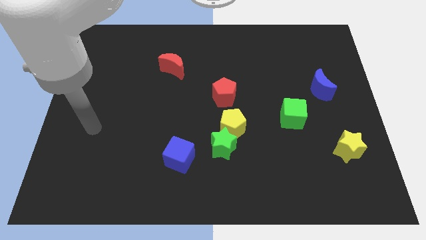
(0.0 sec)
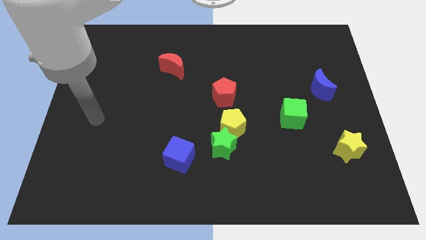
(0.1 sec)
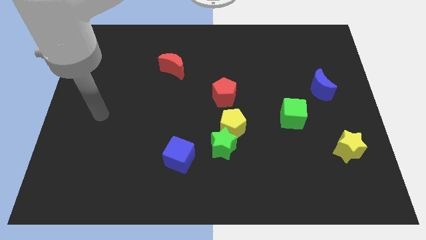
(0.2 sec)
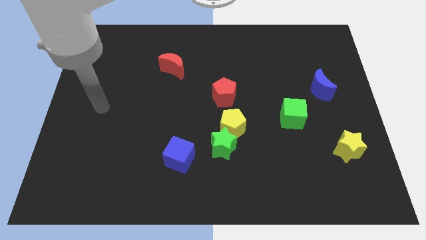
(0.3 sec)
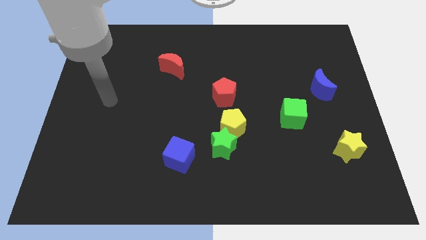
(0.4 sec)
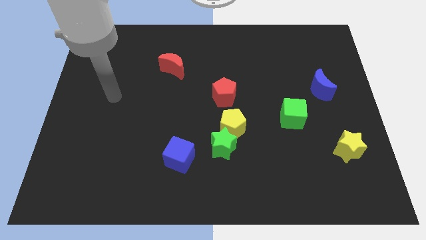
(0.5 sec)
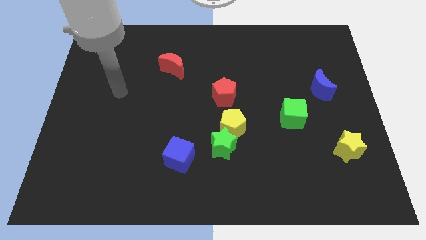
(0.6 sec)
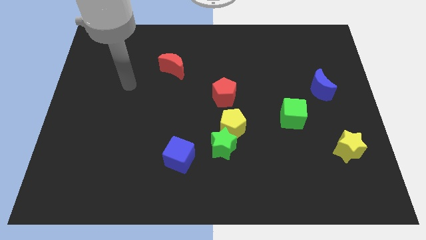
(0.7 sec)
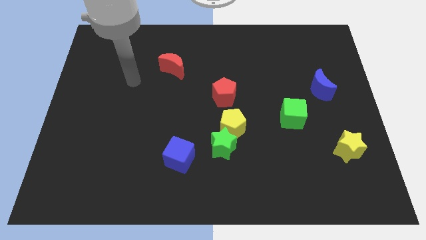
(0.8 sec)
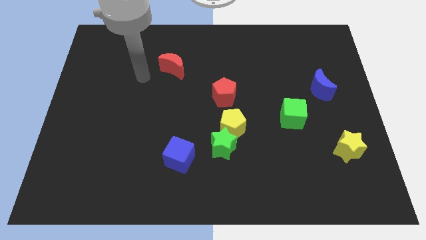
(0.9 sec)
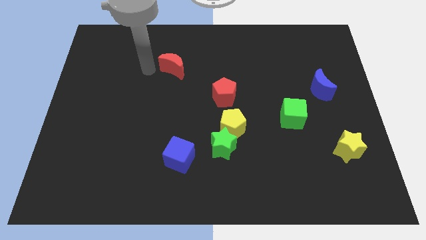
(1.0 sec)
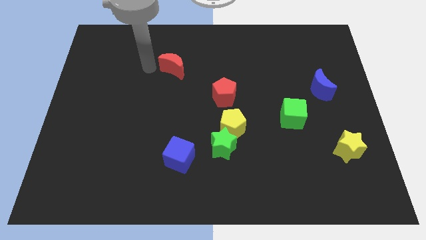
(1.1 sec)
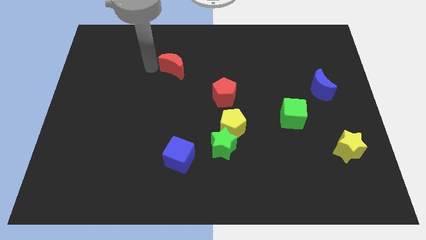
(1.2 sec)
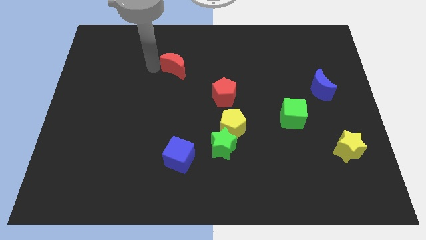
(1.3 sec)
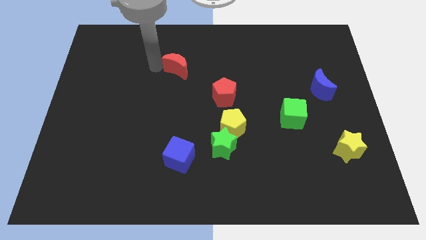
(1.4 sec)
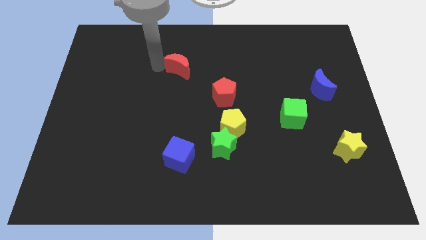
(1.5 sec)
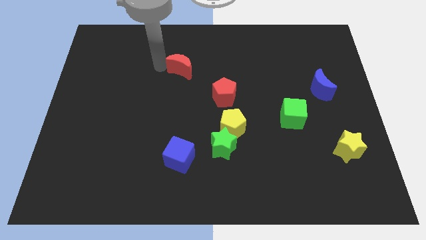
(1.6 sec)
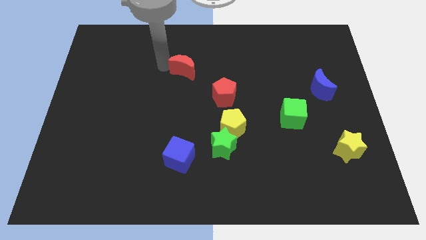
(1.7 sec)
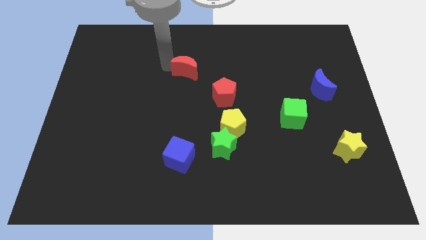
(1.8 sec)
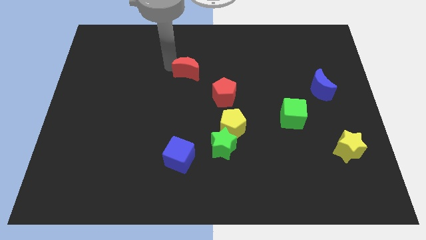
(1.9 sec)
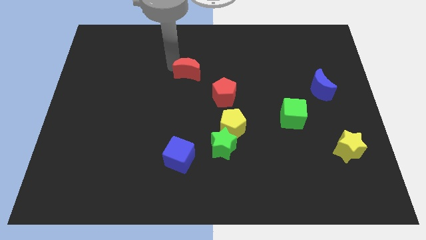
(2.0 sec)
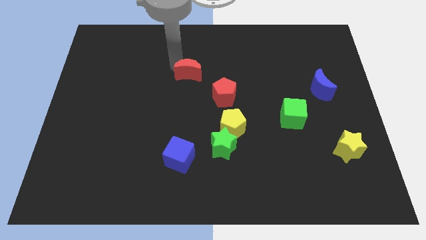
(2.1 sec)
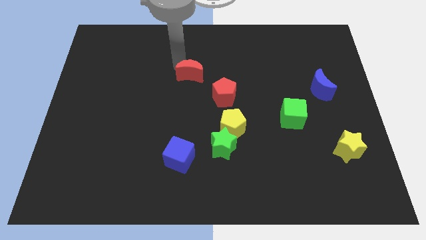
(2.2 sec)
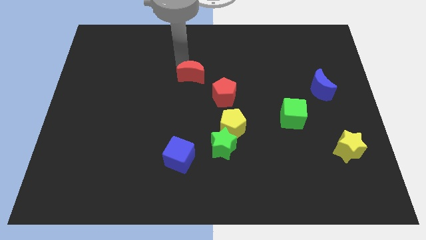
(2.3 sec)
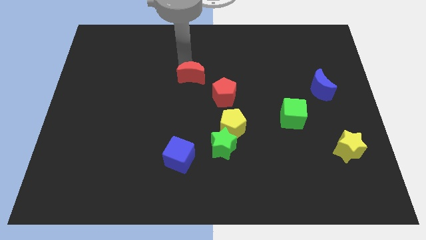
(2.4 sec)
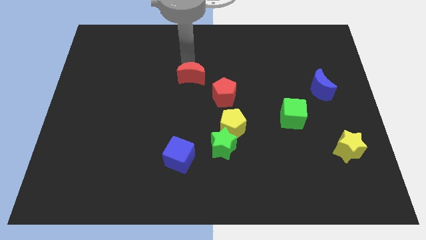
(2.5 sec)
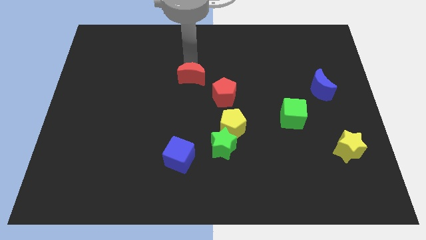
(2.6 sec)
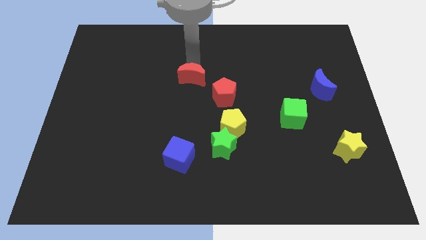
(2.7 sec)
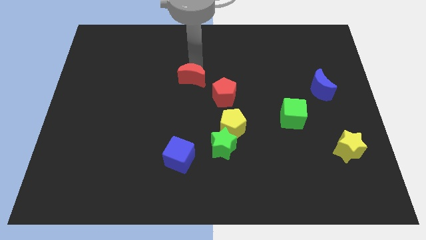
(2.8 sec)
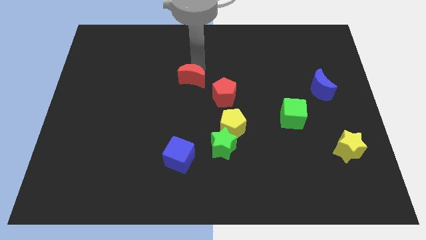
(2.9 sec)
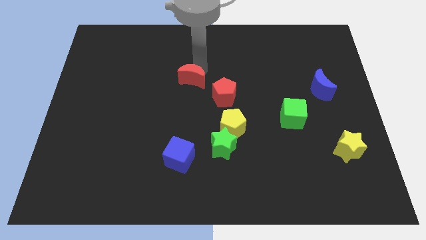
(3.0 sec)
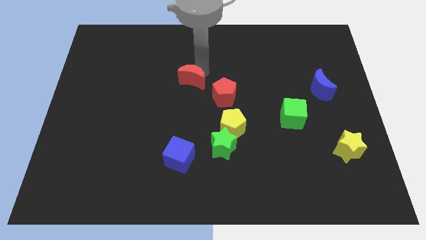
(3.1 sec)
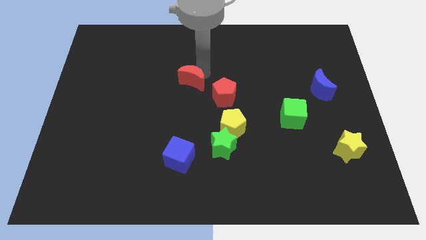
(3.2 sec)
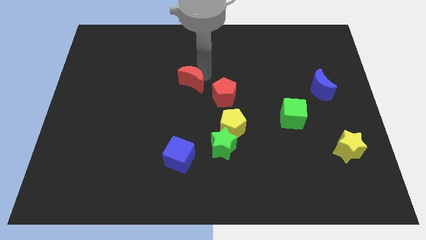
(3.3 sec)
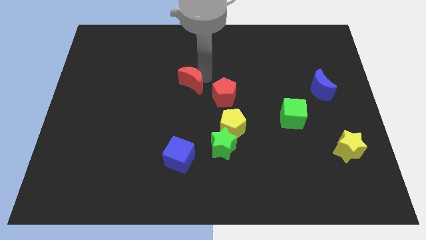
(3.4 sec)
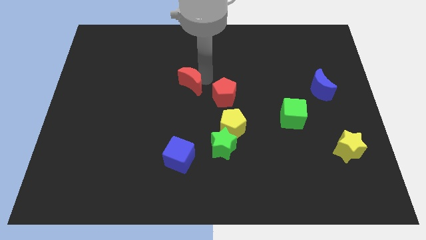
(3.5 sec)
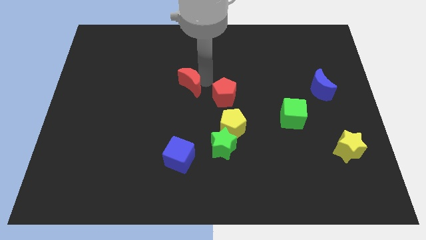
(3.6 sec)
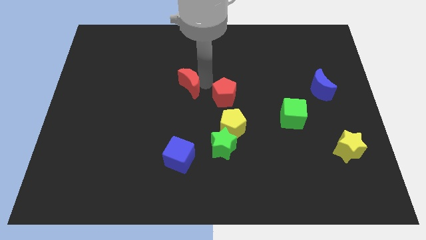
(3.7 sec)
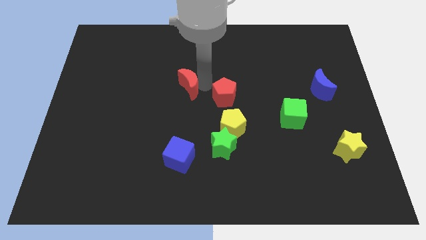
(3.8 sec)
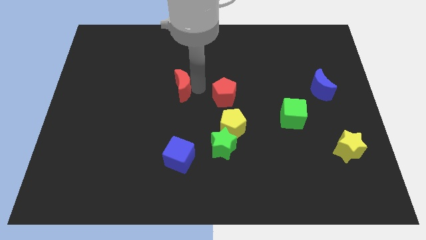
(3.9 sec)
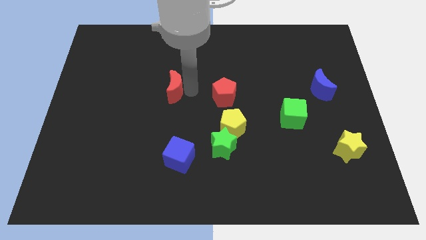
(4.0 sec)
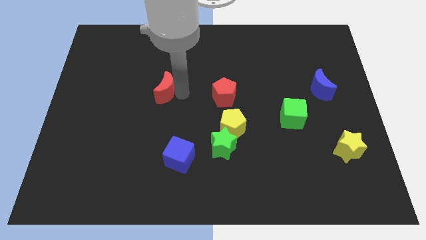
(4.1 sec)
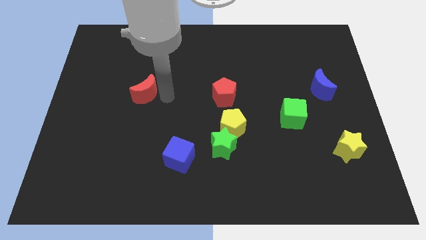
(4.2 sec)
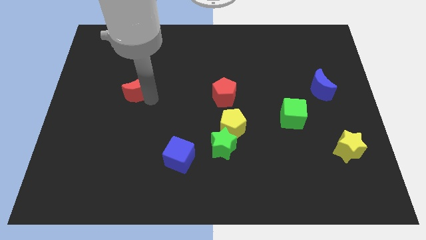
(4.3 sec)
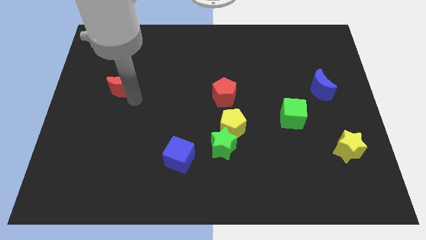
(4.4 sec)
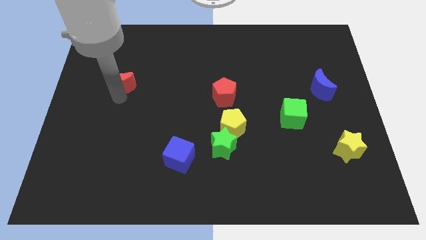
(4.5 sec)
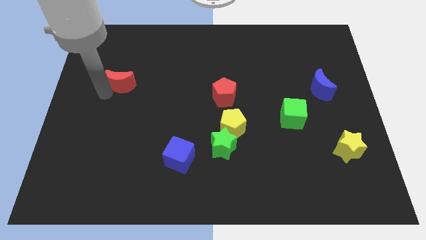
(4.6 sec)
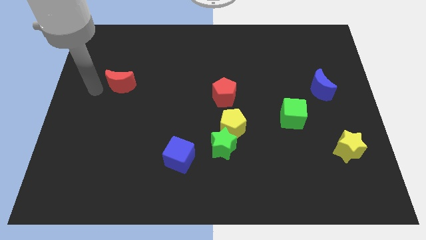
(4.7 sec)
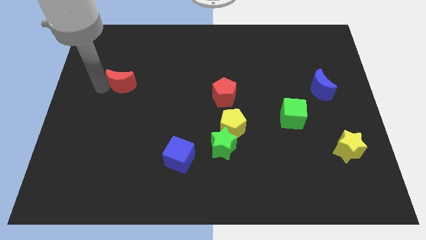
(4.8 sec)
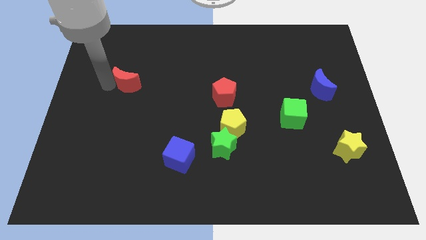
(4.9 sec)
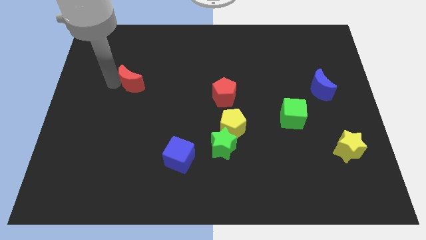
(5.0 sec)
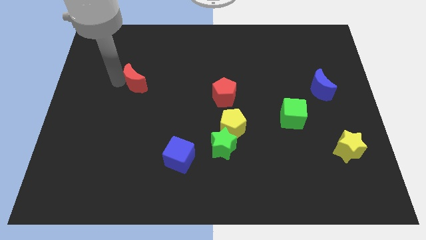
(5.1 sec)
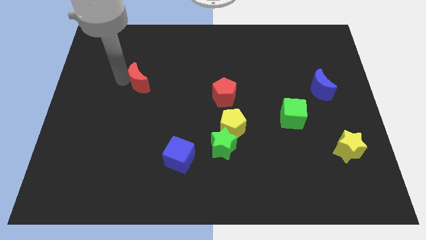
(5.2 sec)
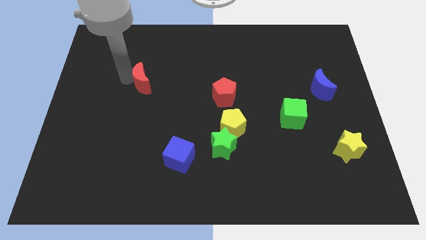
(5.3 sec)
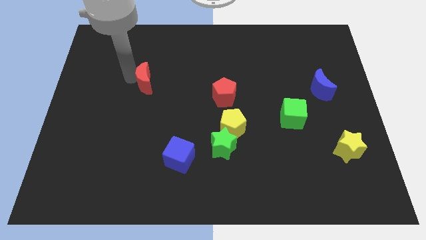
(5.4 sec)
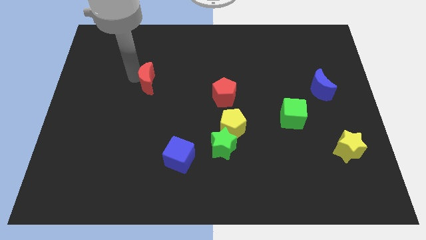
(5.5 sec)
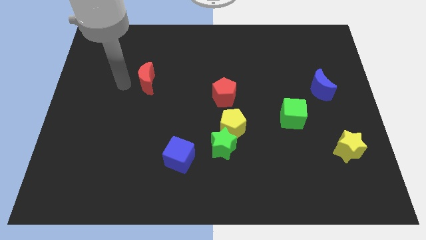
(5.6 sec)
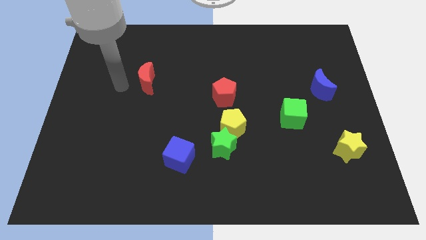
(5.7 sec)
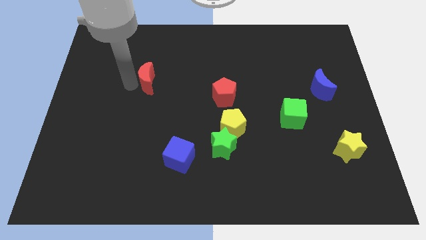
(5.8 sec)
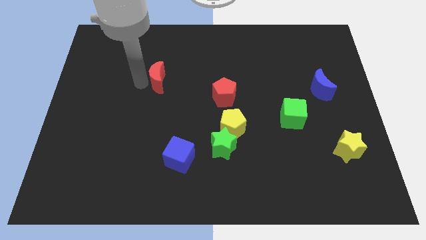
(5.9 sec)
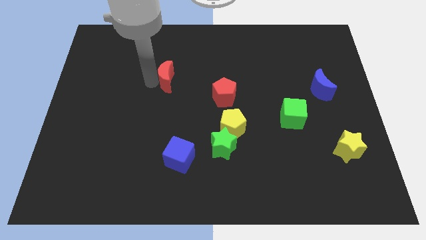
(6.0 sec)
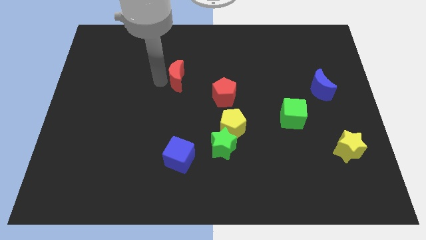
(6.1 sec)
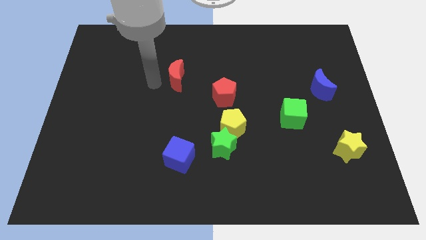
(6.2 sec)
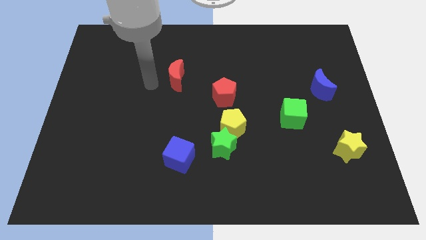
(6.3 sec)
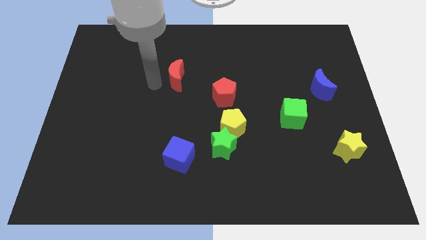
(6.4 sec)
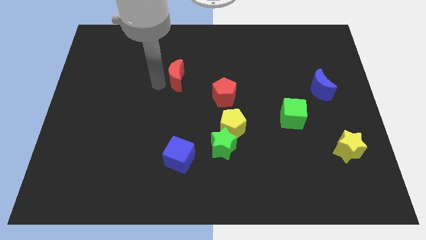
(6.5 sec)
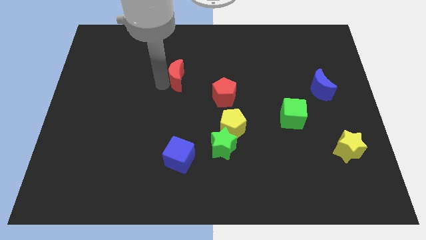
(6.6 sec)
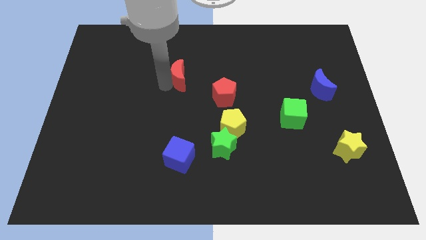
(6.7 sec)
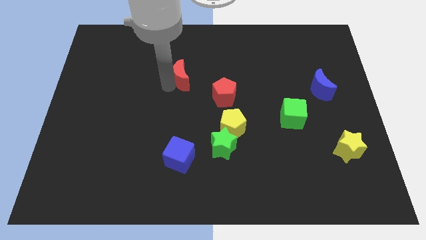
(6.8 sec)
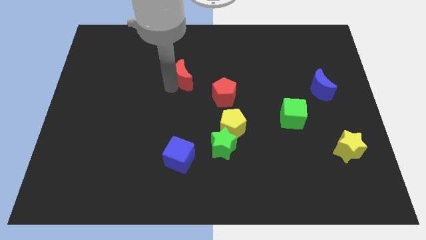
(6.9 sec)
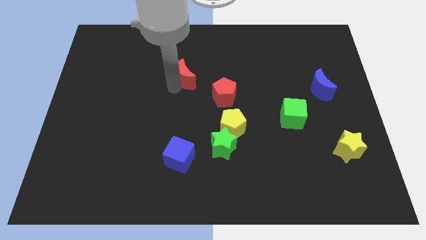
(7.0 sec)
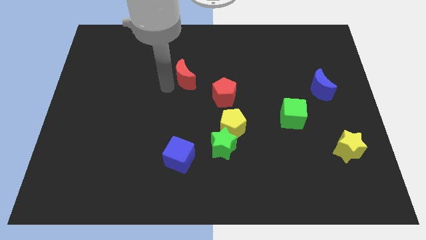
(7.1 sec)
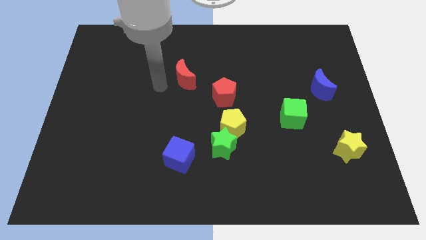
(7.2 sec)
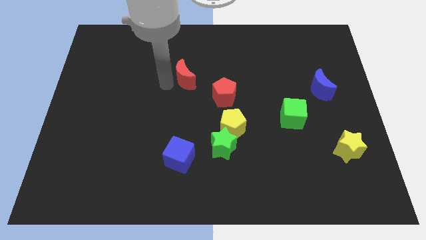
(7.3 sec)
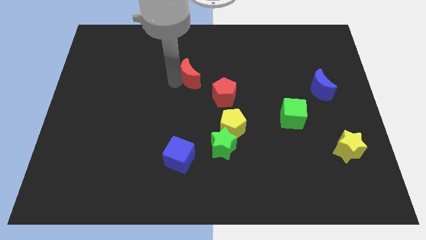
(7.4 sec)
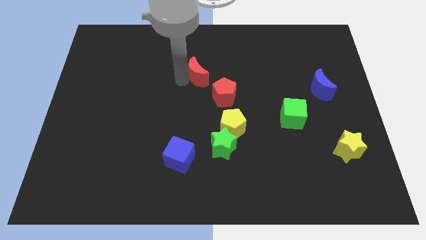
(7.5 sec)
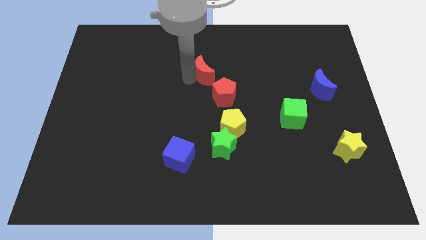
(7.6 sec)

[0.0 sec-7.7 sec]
slightly push the red moon right

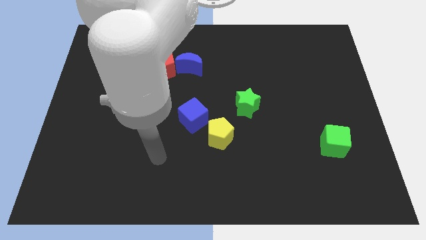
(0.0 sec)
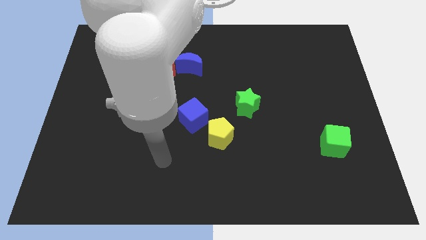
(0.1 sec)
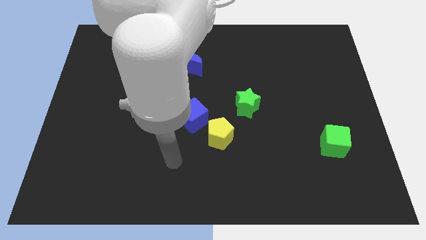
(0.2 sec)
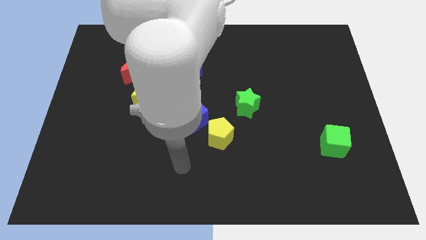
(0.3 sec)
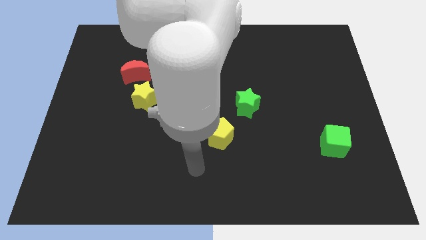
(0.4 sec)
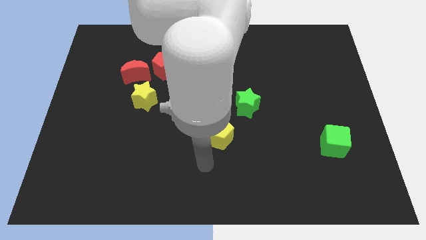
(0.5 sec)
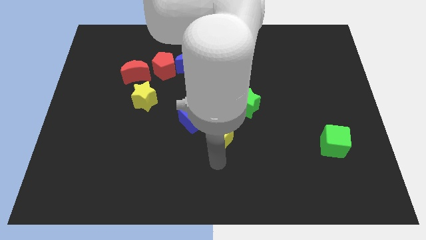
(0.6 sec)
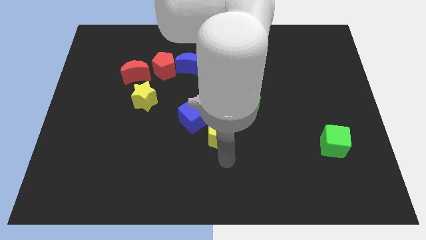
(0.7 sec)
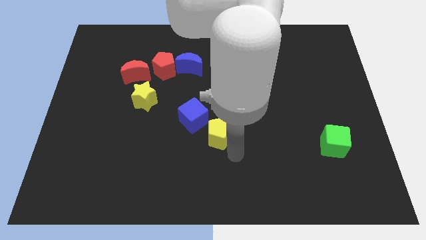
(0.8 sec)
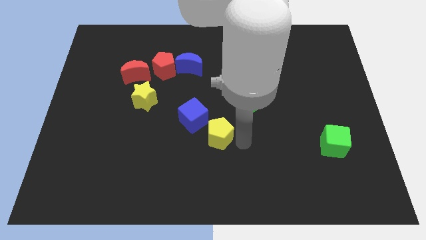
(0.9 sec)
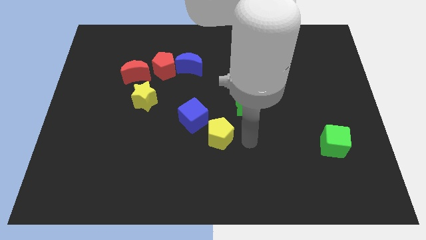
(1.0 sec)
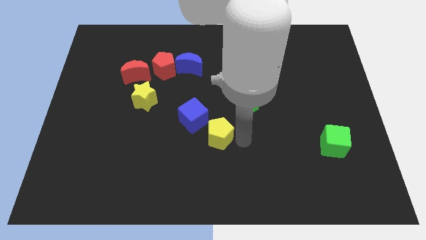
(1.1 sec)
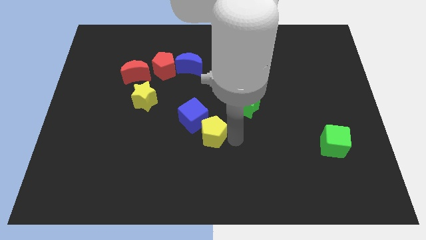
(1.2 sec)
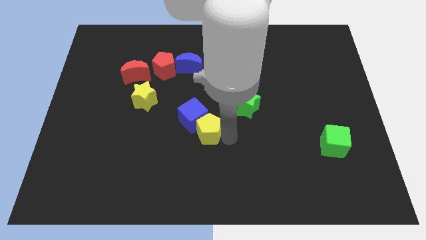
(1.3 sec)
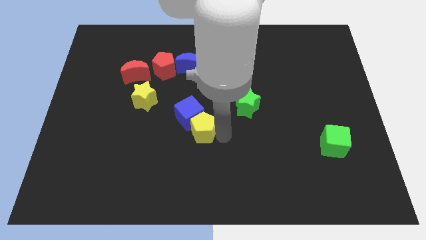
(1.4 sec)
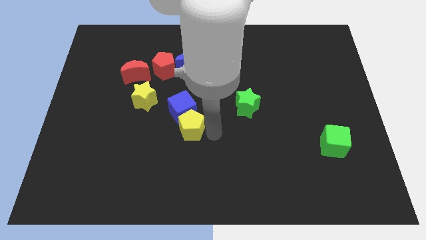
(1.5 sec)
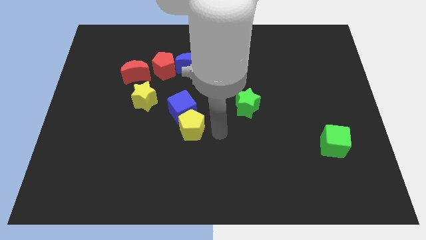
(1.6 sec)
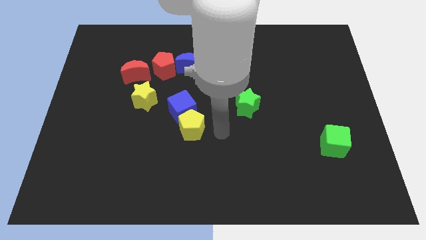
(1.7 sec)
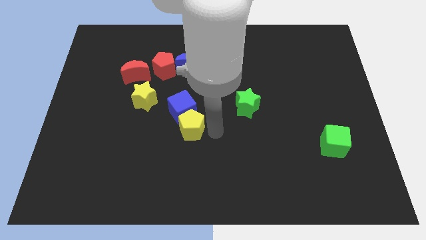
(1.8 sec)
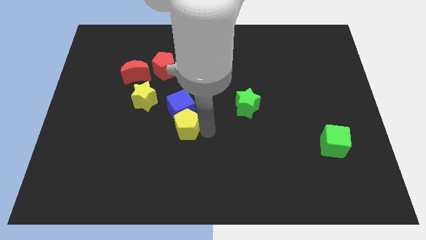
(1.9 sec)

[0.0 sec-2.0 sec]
slide the yellow pentagon a little left
